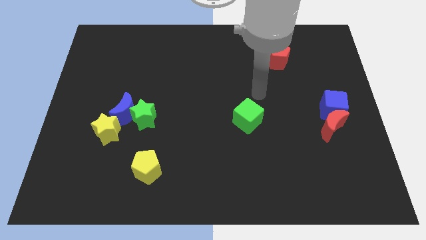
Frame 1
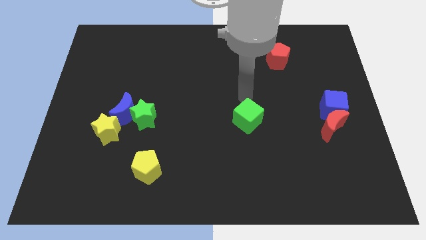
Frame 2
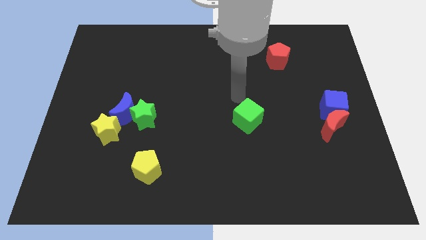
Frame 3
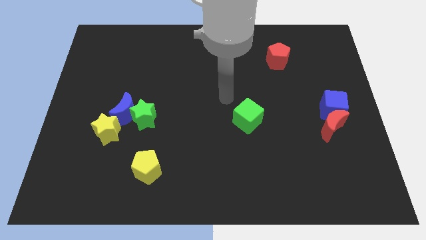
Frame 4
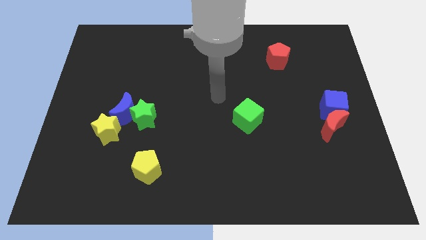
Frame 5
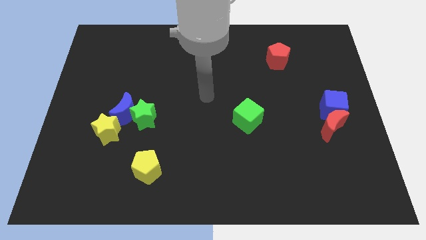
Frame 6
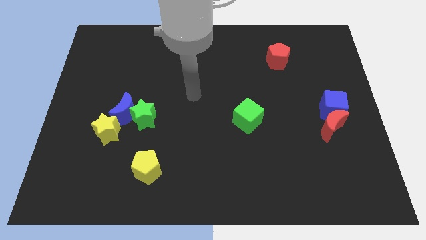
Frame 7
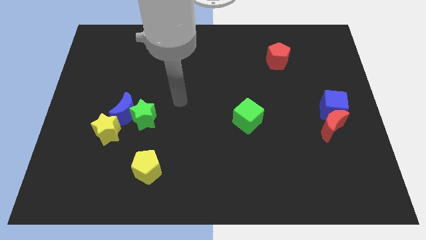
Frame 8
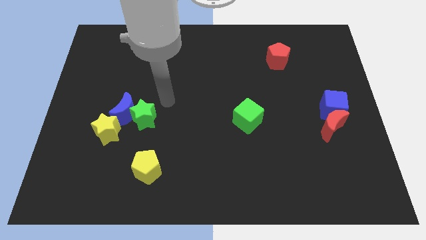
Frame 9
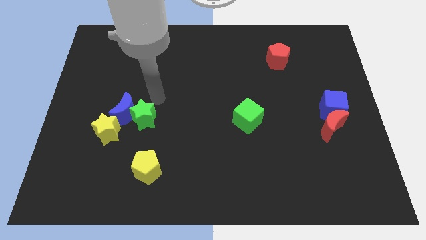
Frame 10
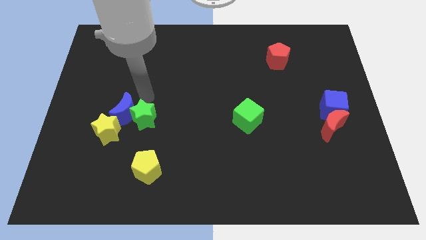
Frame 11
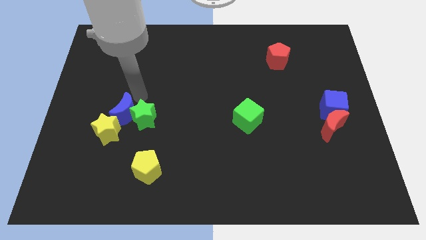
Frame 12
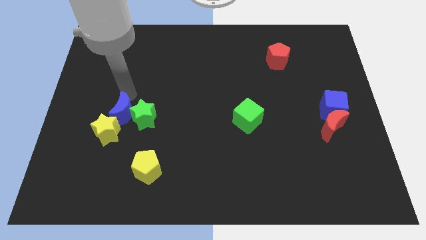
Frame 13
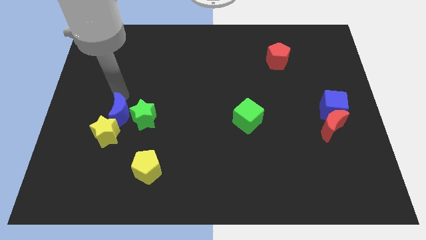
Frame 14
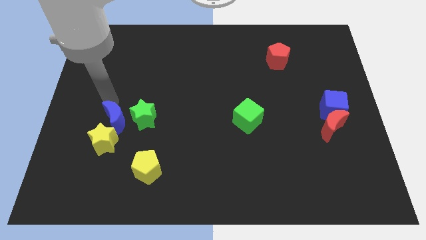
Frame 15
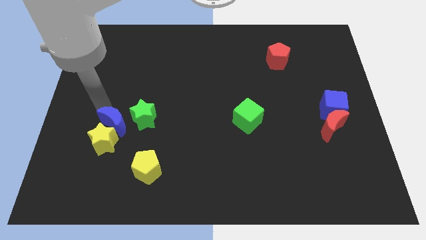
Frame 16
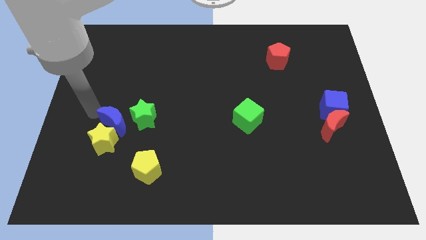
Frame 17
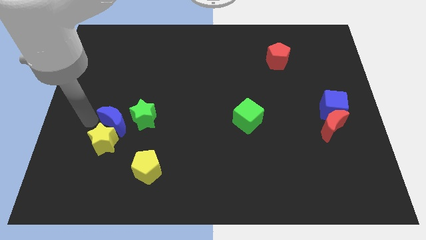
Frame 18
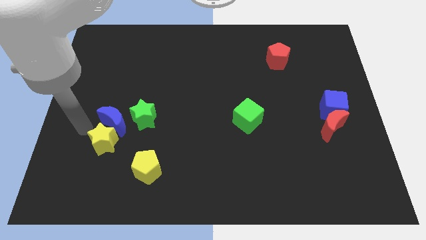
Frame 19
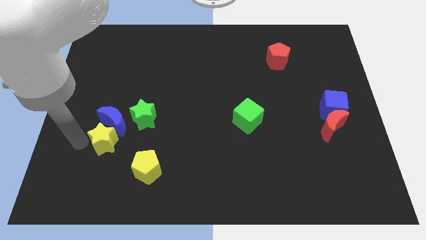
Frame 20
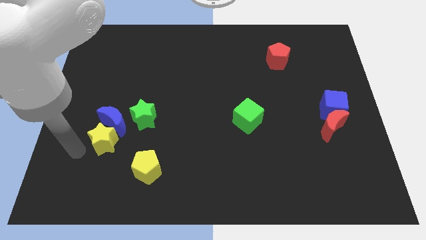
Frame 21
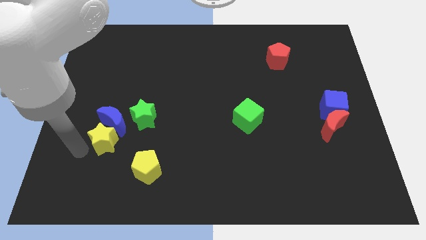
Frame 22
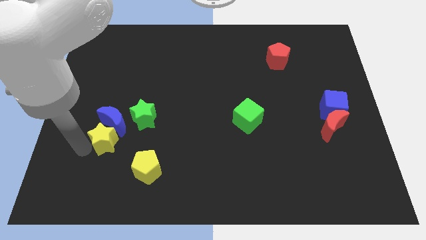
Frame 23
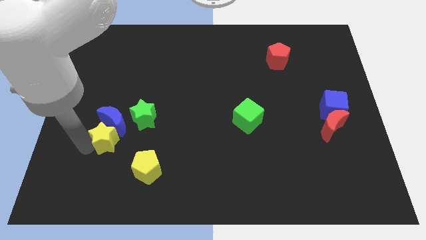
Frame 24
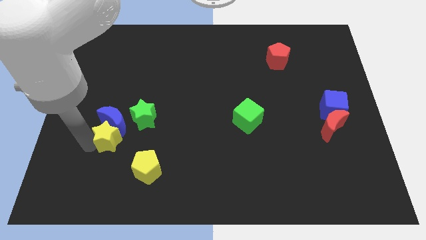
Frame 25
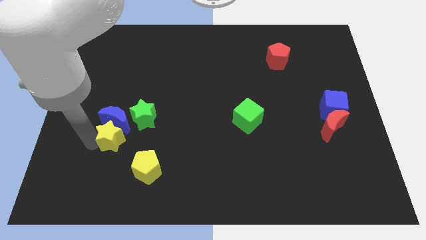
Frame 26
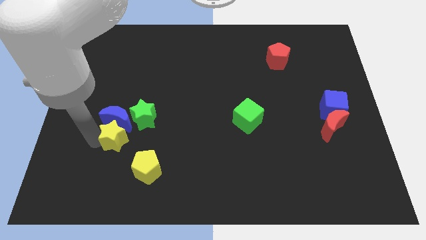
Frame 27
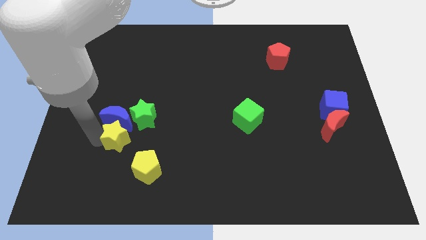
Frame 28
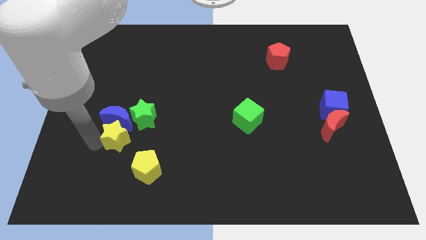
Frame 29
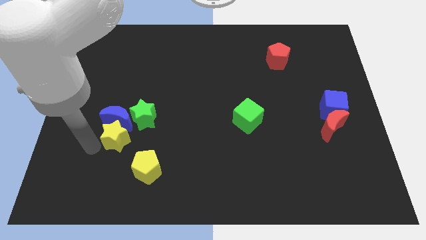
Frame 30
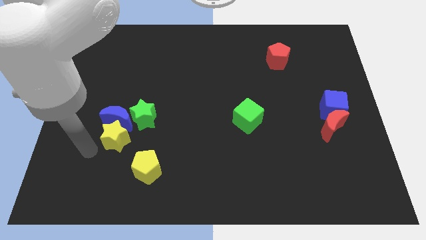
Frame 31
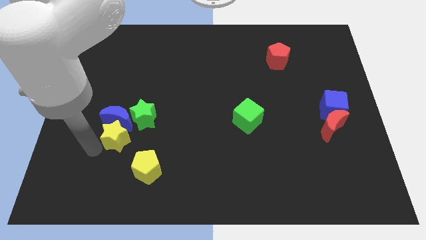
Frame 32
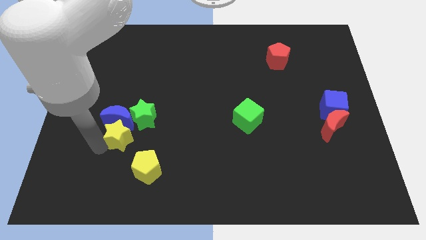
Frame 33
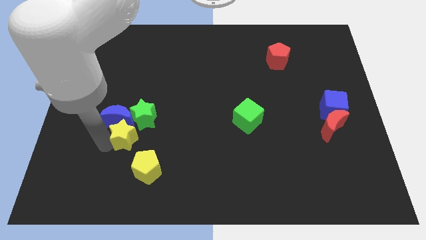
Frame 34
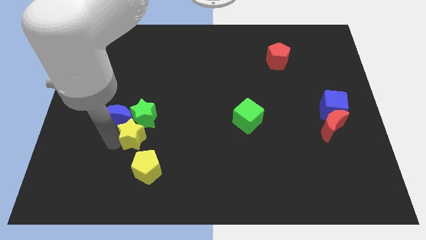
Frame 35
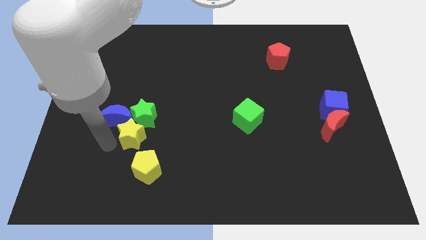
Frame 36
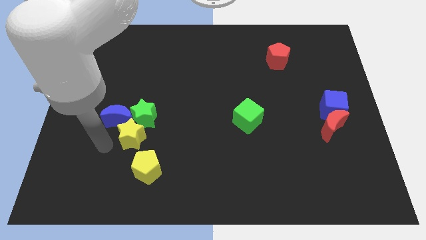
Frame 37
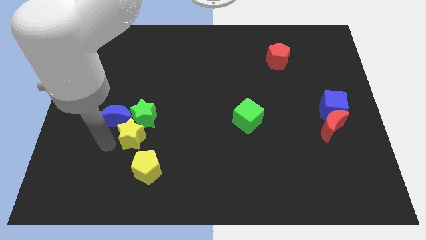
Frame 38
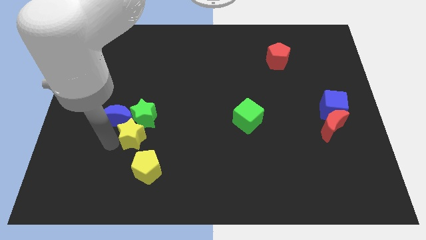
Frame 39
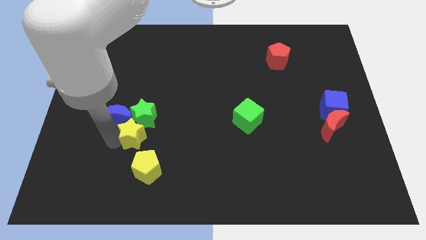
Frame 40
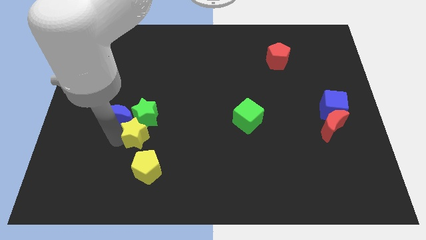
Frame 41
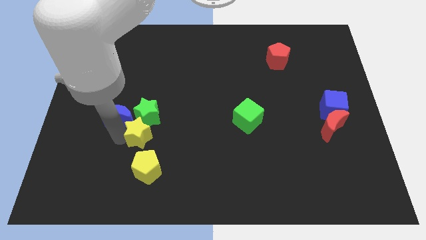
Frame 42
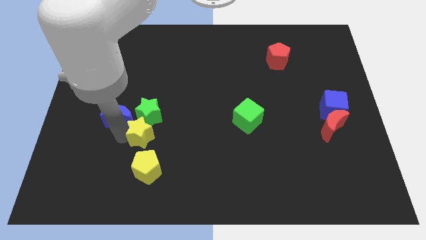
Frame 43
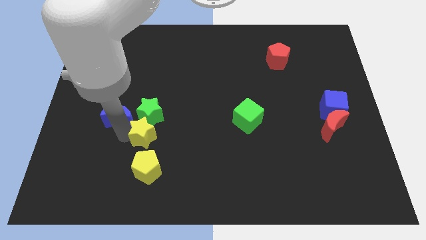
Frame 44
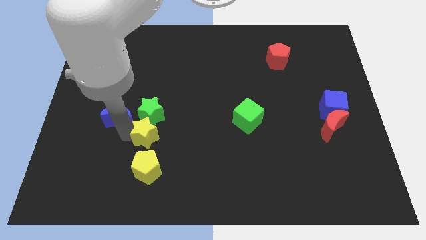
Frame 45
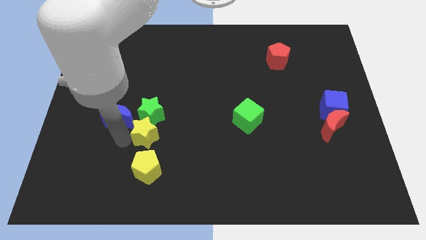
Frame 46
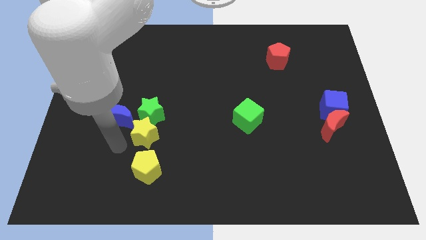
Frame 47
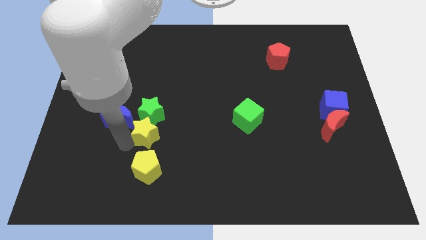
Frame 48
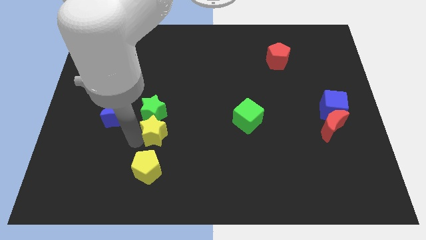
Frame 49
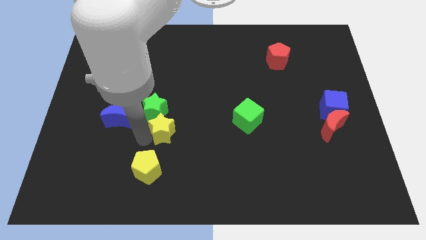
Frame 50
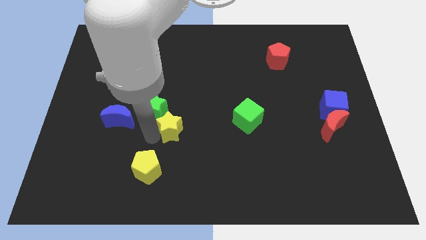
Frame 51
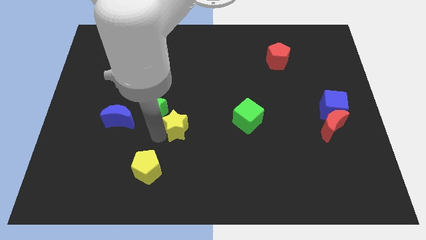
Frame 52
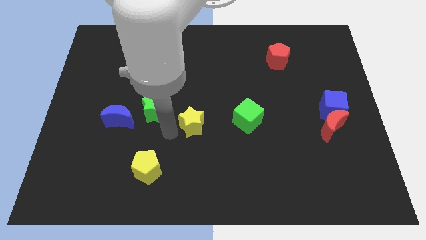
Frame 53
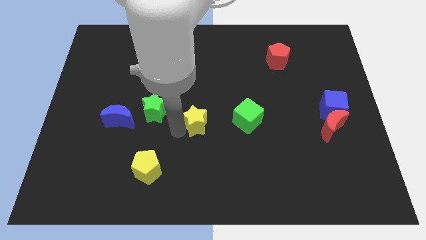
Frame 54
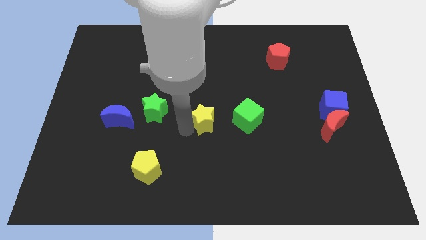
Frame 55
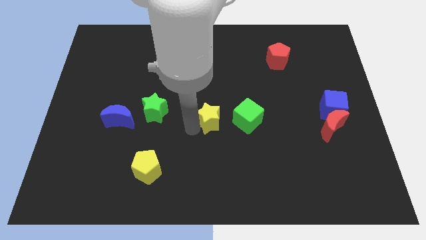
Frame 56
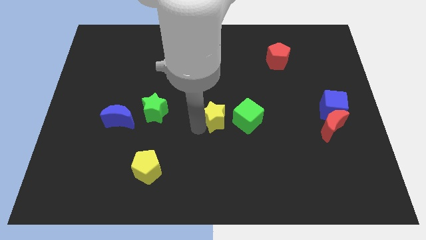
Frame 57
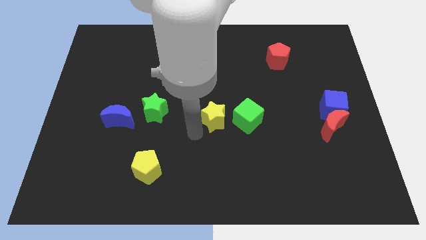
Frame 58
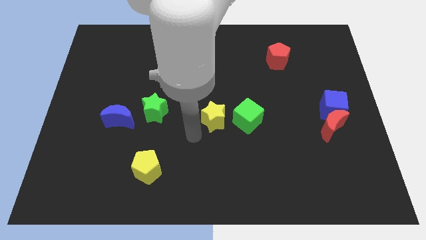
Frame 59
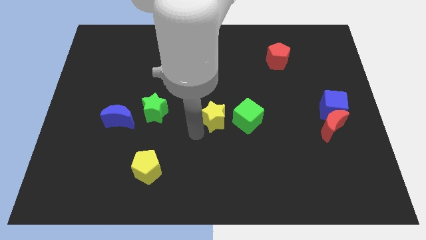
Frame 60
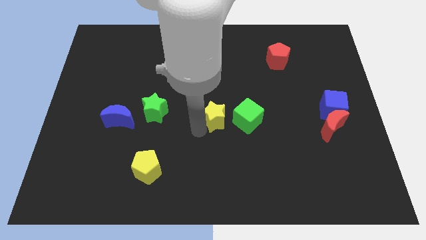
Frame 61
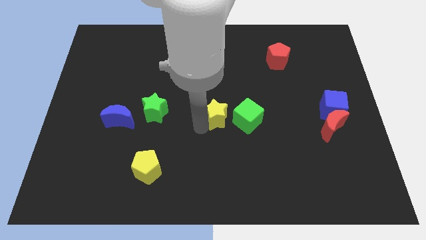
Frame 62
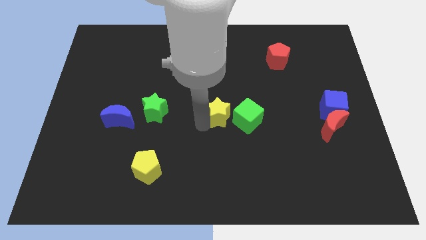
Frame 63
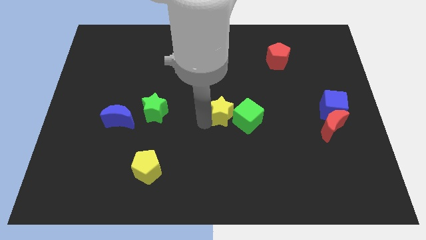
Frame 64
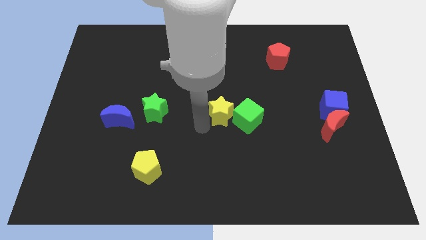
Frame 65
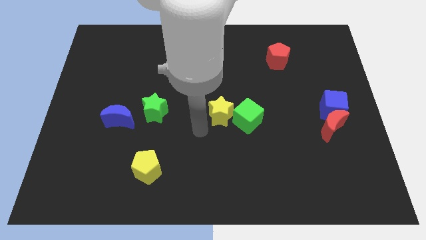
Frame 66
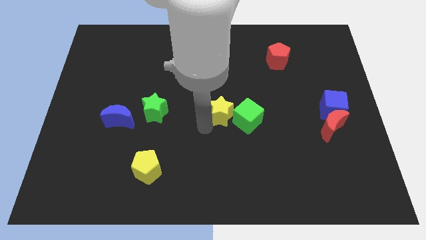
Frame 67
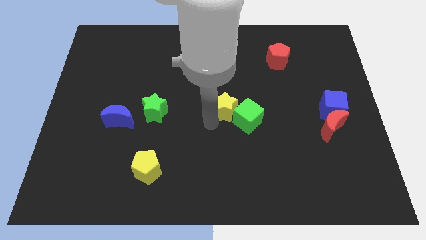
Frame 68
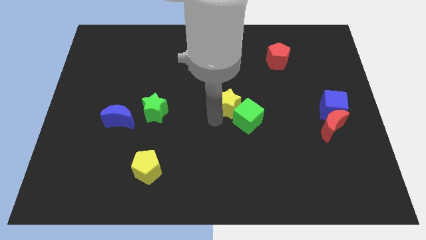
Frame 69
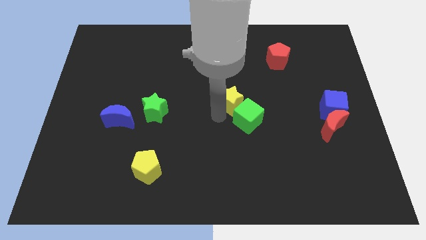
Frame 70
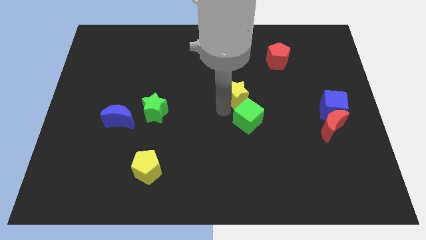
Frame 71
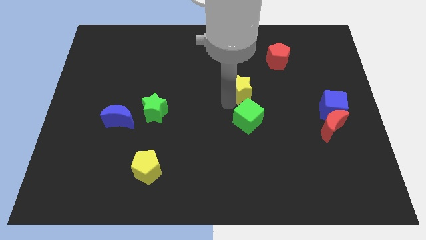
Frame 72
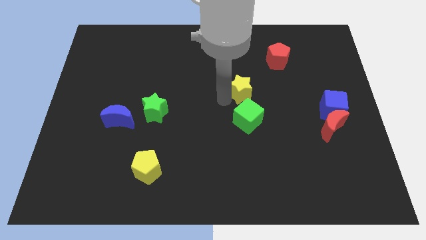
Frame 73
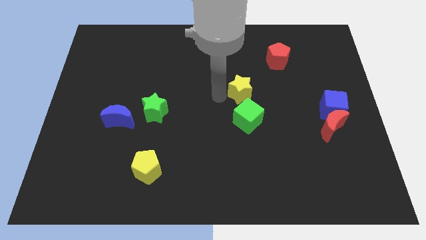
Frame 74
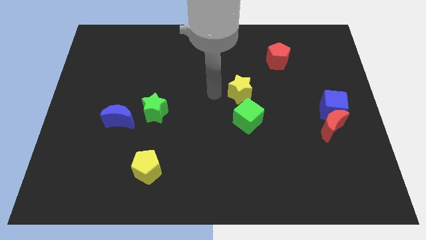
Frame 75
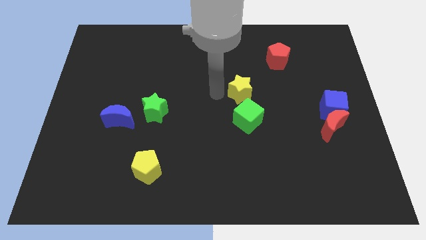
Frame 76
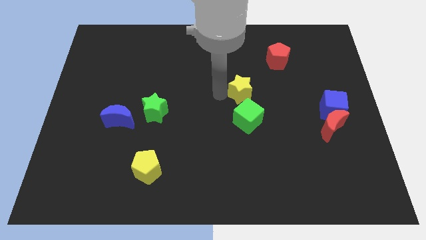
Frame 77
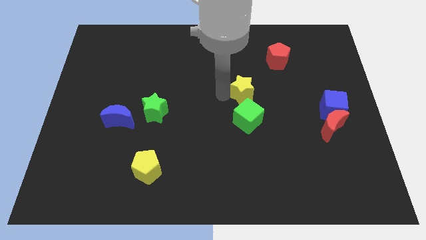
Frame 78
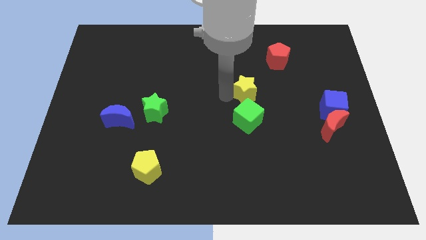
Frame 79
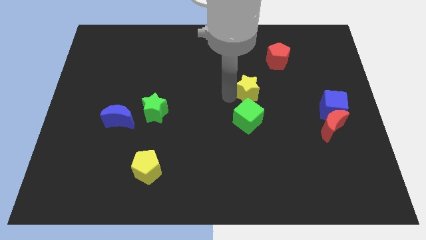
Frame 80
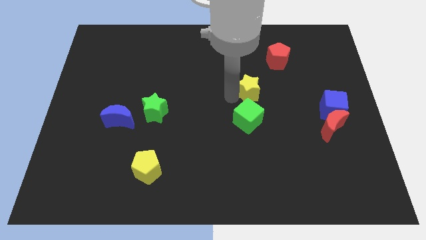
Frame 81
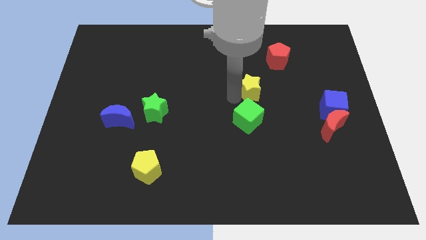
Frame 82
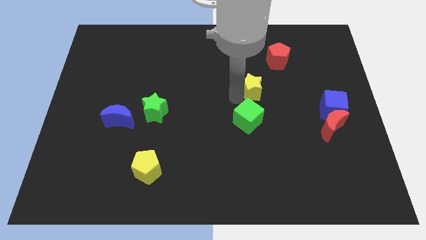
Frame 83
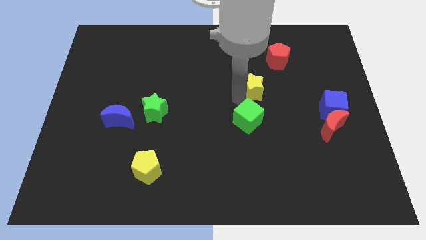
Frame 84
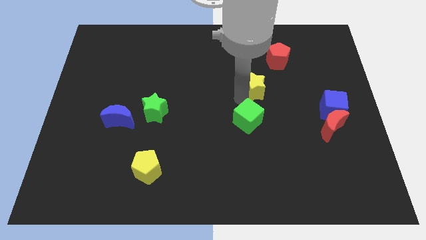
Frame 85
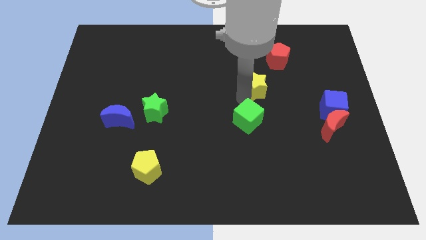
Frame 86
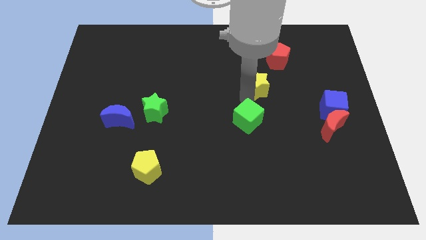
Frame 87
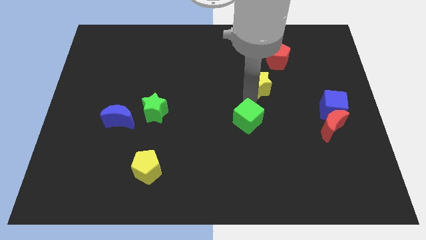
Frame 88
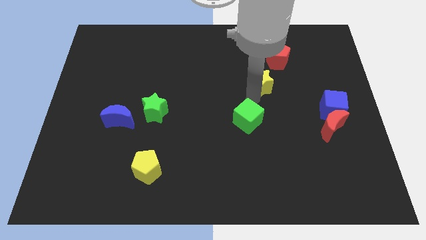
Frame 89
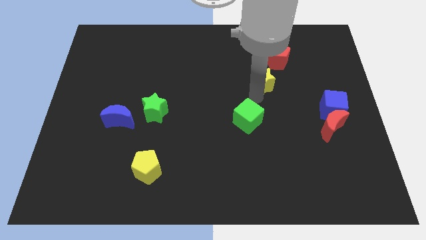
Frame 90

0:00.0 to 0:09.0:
move the yellow star to the bottom of the red pentagon
